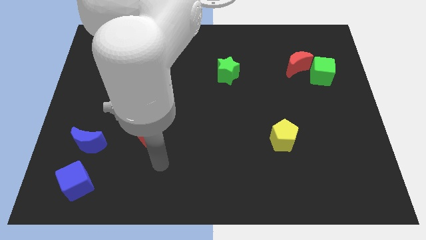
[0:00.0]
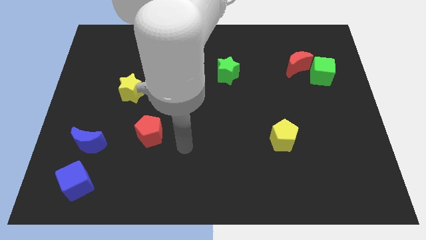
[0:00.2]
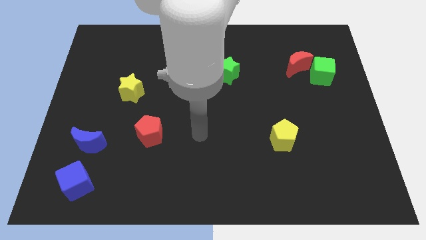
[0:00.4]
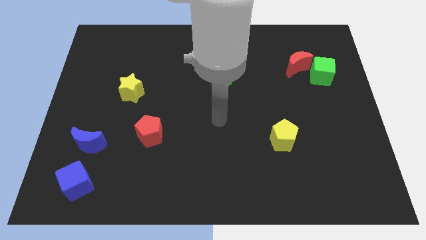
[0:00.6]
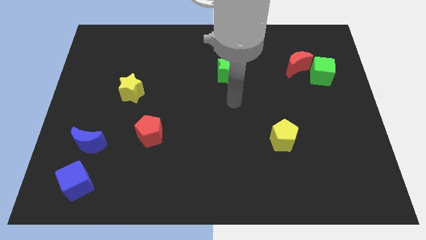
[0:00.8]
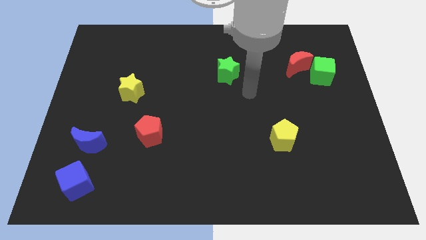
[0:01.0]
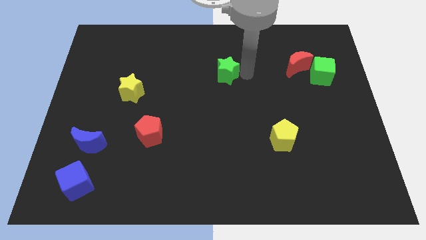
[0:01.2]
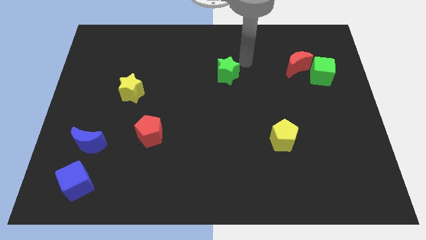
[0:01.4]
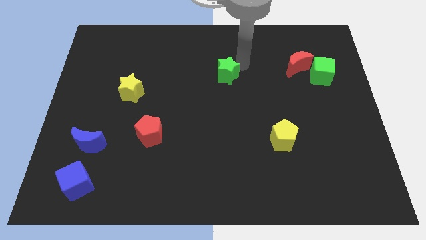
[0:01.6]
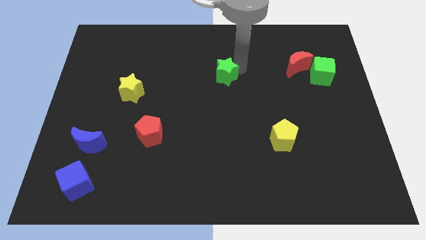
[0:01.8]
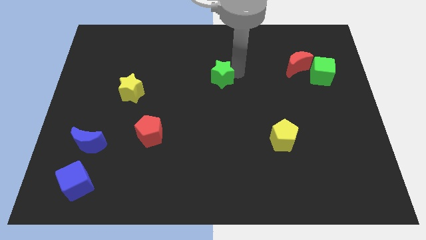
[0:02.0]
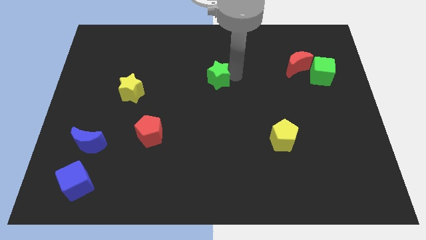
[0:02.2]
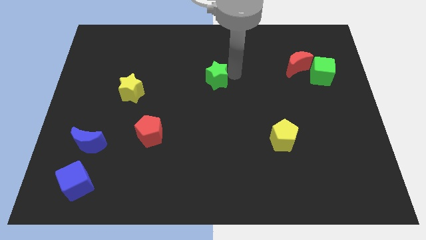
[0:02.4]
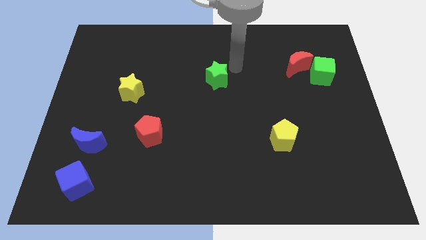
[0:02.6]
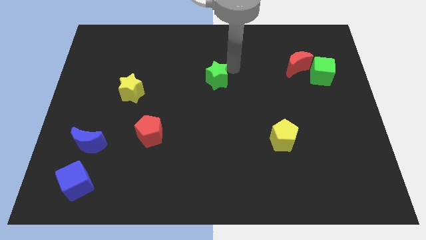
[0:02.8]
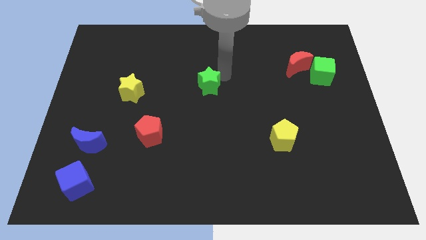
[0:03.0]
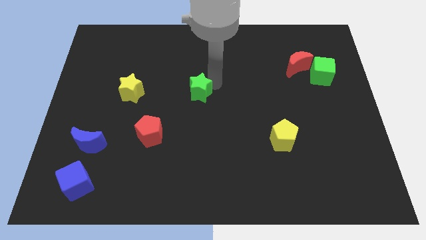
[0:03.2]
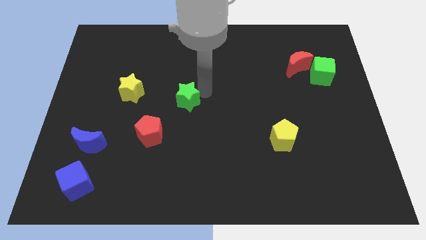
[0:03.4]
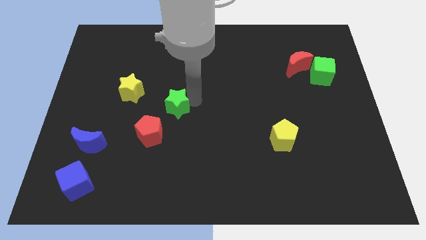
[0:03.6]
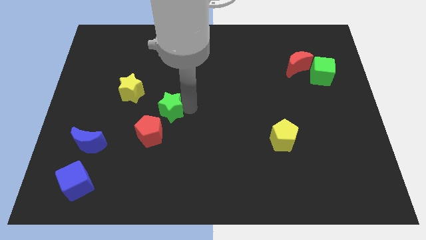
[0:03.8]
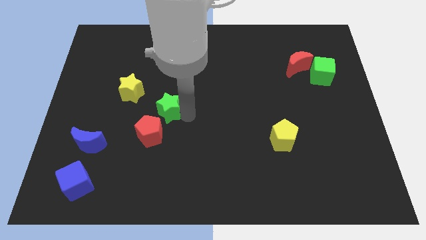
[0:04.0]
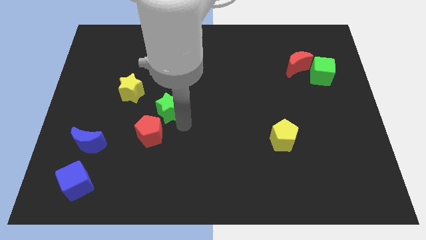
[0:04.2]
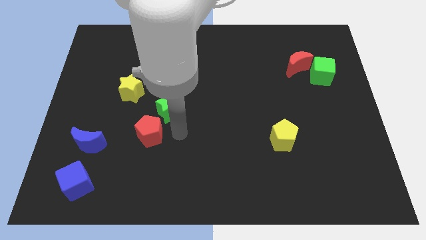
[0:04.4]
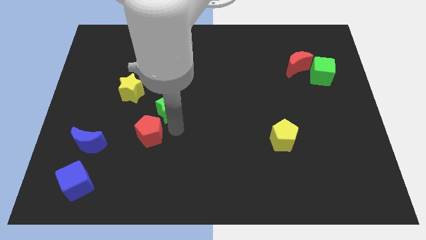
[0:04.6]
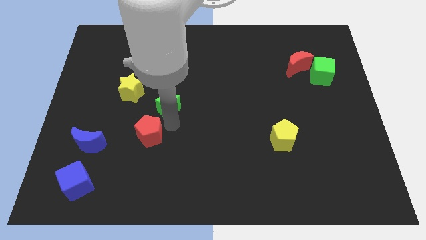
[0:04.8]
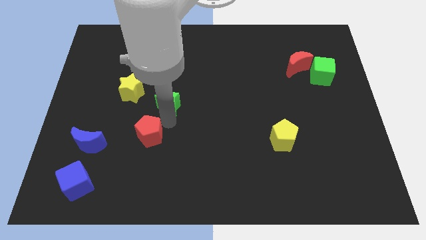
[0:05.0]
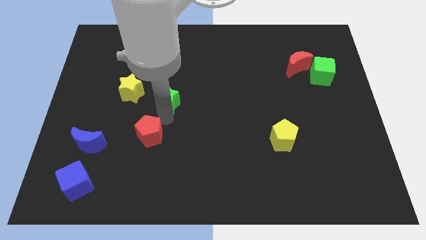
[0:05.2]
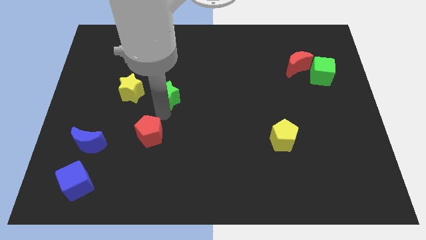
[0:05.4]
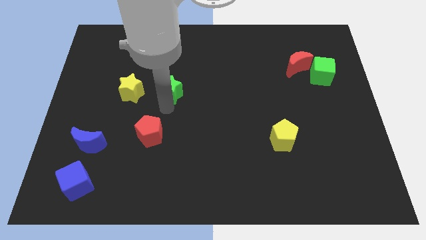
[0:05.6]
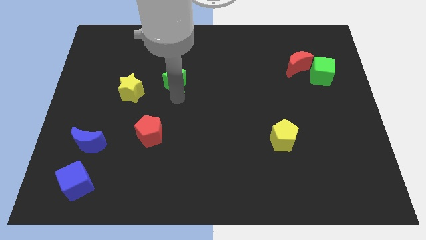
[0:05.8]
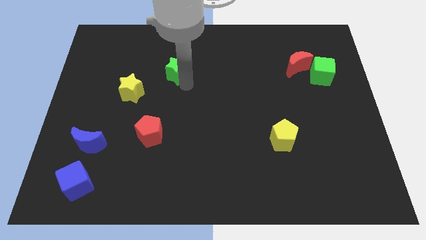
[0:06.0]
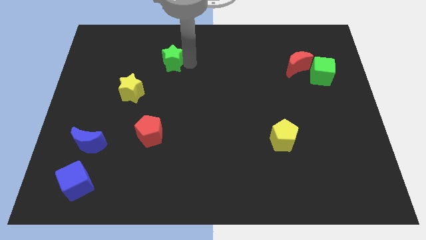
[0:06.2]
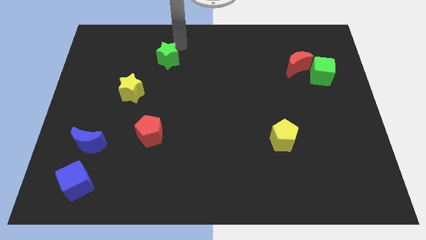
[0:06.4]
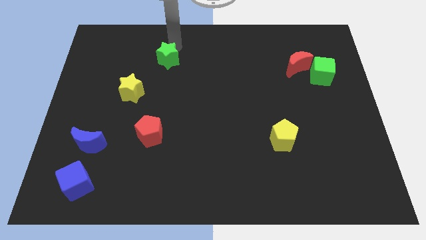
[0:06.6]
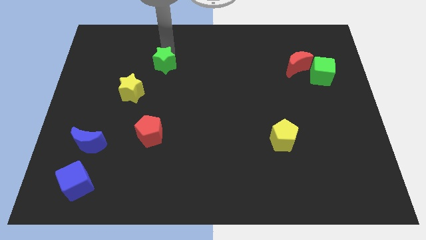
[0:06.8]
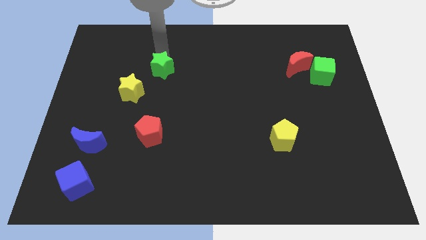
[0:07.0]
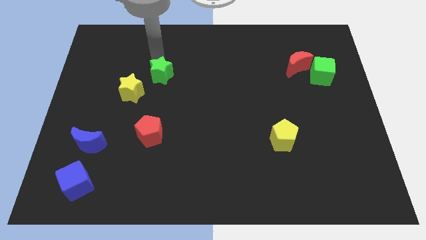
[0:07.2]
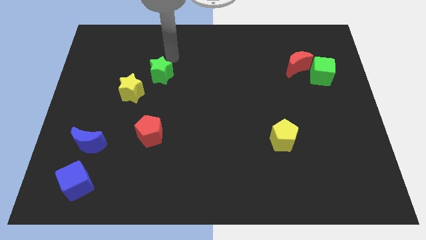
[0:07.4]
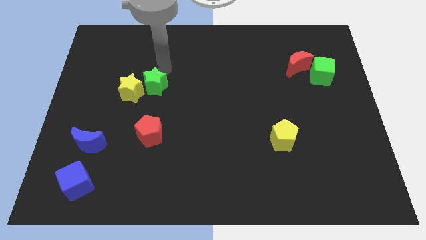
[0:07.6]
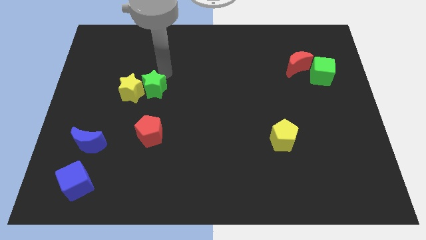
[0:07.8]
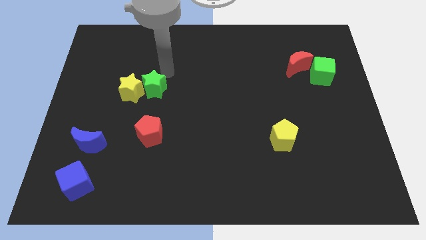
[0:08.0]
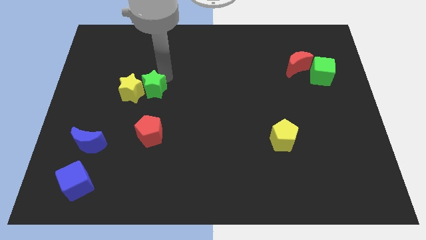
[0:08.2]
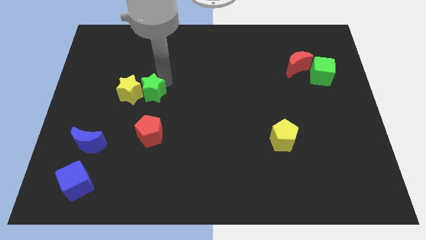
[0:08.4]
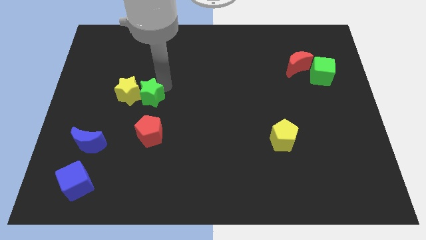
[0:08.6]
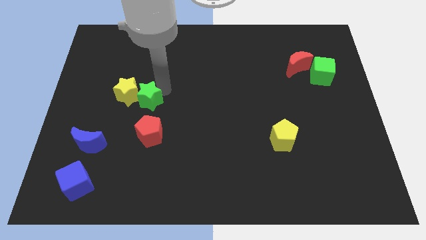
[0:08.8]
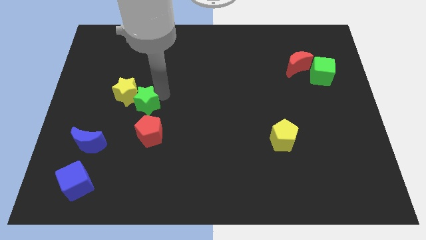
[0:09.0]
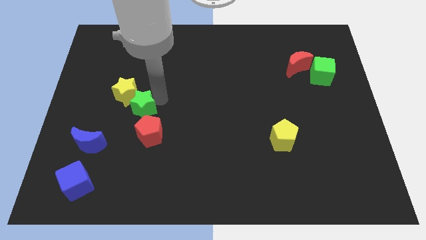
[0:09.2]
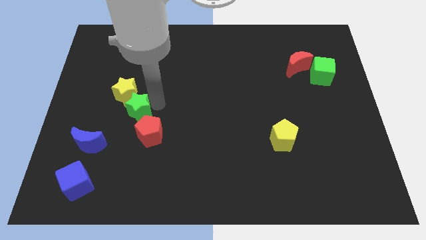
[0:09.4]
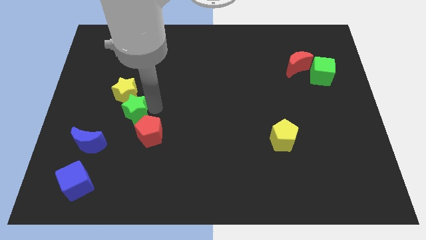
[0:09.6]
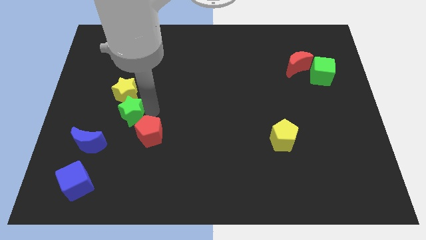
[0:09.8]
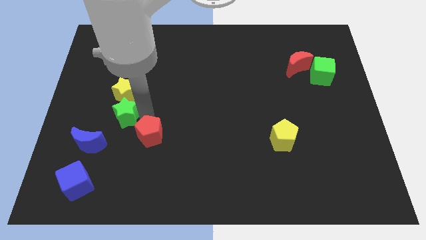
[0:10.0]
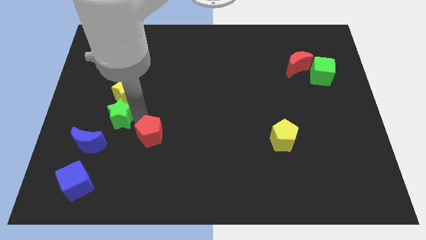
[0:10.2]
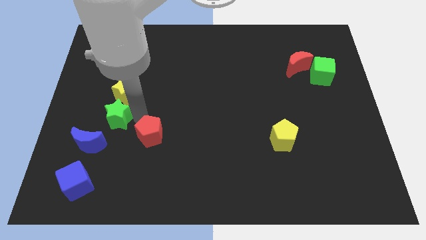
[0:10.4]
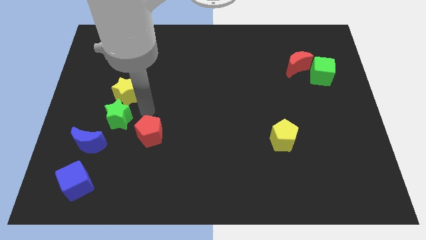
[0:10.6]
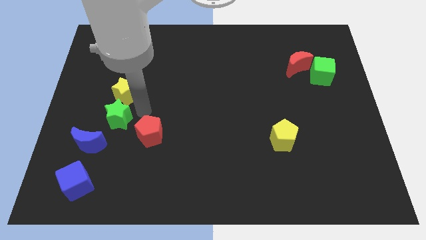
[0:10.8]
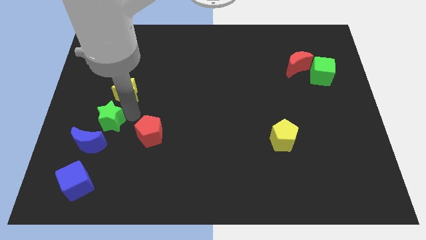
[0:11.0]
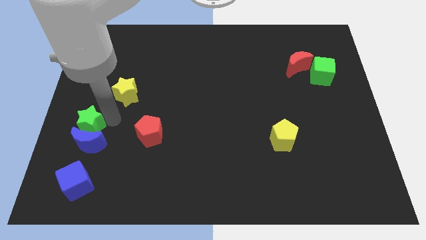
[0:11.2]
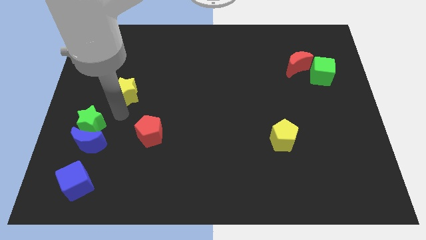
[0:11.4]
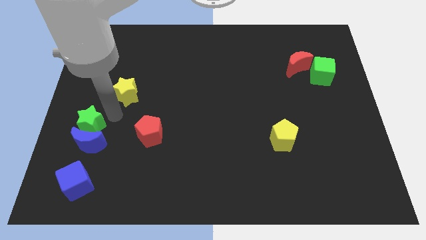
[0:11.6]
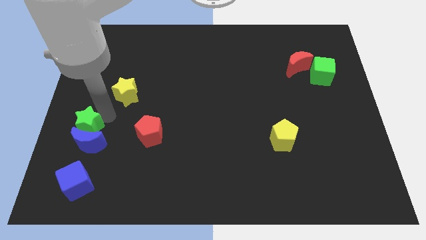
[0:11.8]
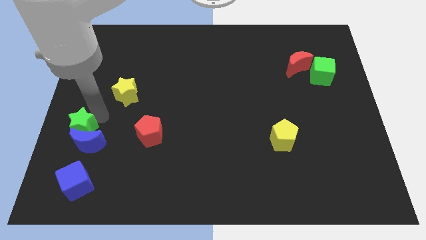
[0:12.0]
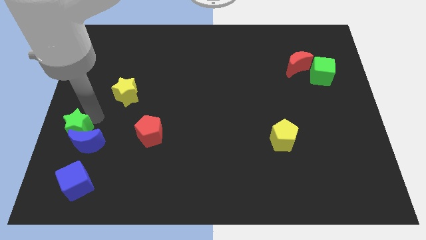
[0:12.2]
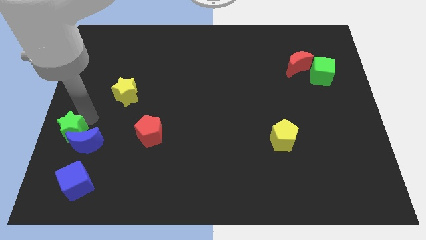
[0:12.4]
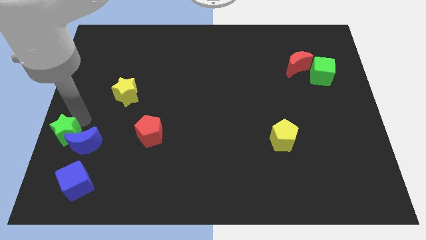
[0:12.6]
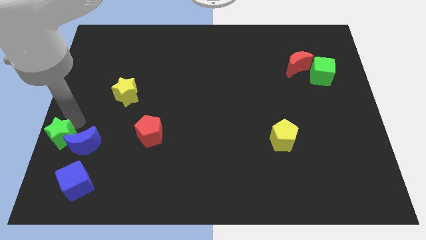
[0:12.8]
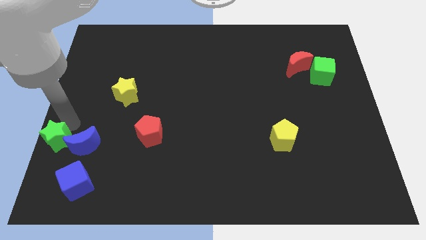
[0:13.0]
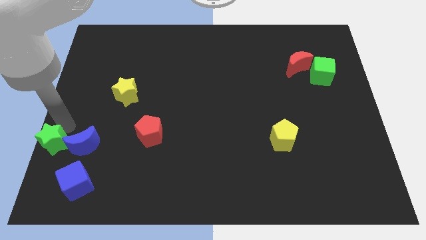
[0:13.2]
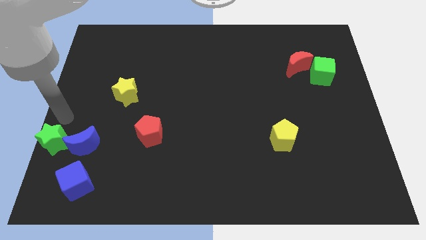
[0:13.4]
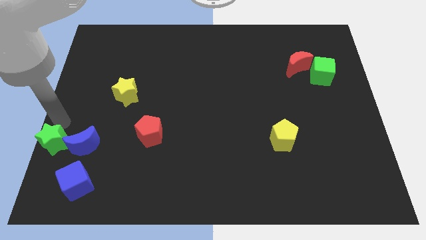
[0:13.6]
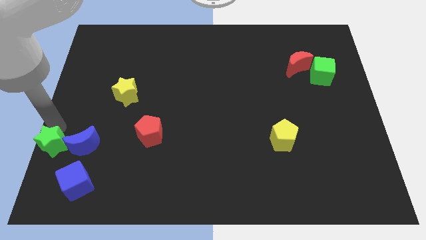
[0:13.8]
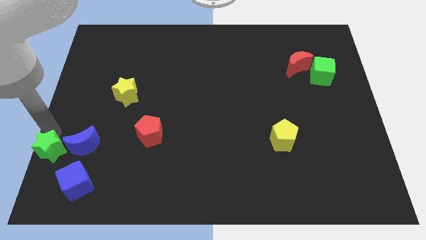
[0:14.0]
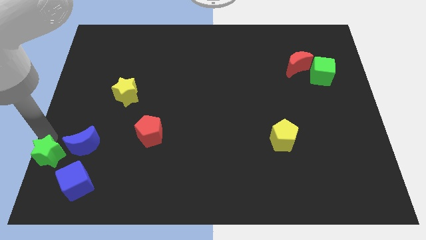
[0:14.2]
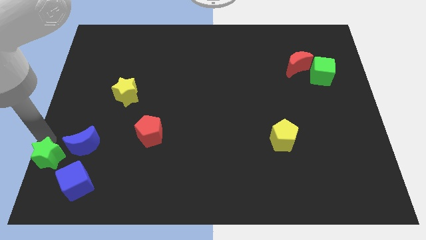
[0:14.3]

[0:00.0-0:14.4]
put the green star to the bottom left
